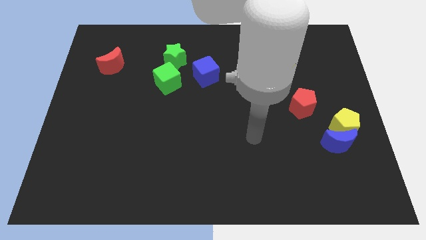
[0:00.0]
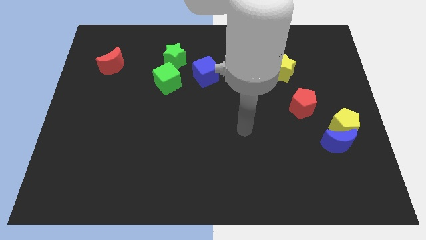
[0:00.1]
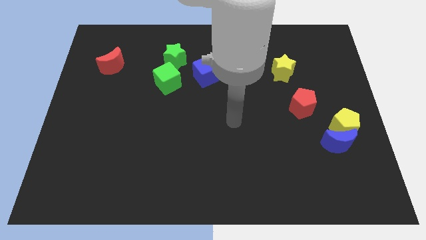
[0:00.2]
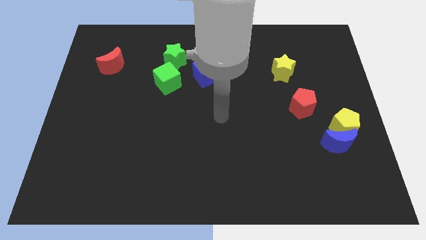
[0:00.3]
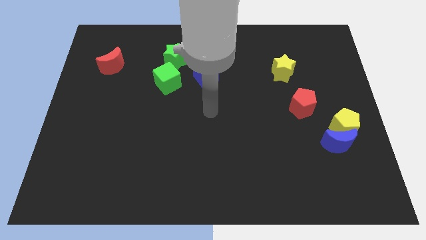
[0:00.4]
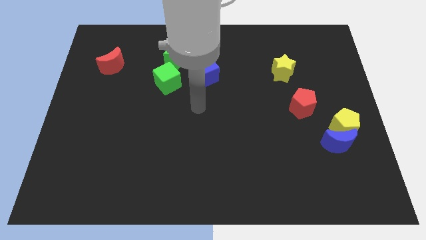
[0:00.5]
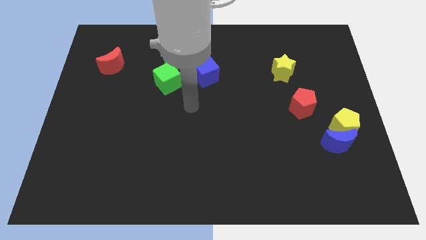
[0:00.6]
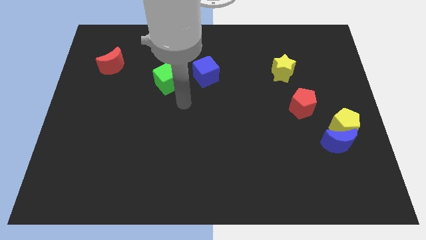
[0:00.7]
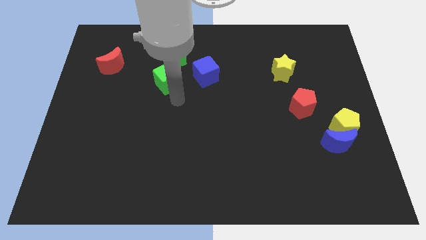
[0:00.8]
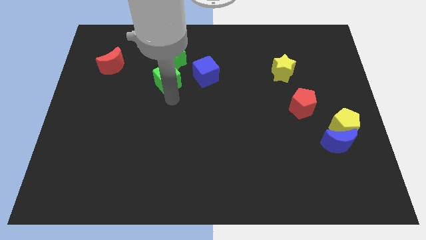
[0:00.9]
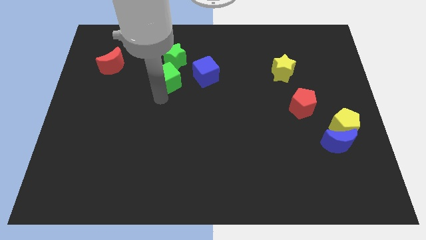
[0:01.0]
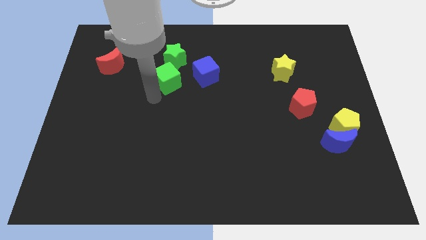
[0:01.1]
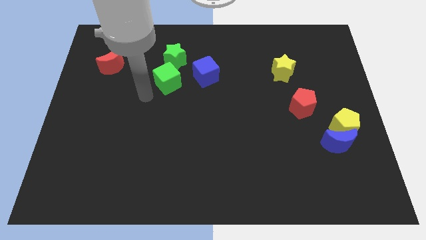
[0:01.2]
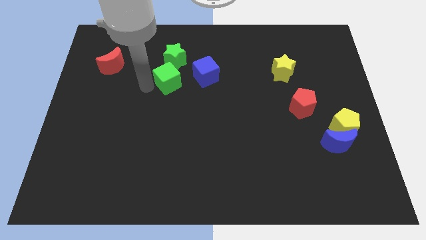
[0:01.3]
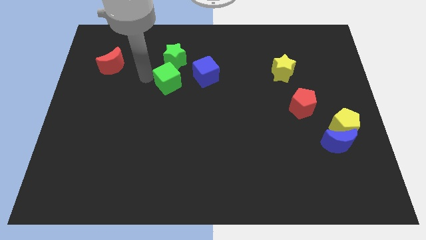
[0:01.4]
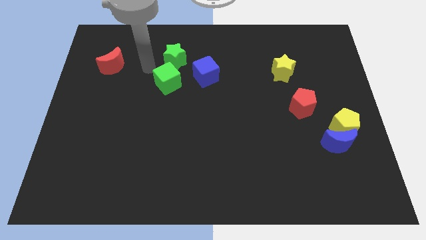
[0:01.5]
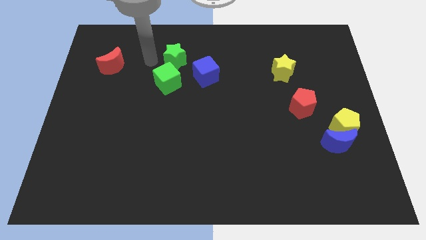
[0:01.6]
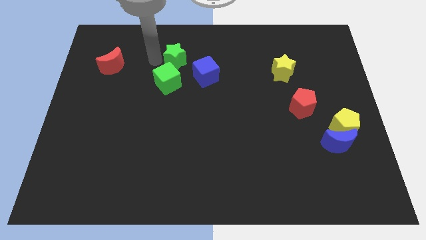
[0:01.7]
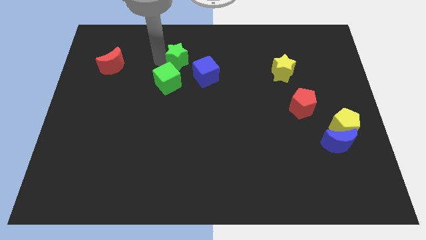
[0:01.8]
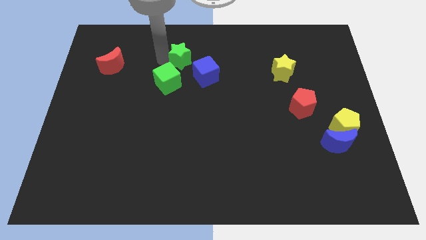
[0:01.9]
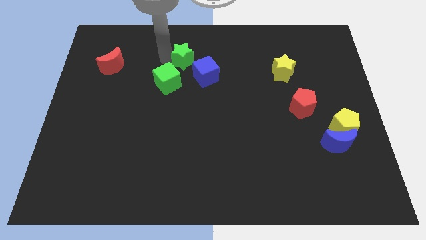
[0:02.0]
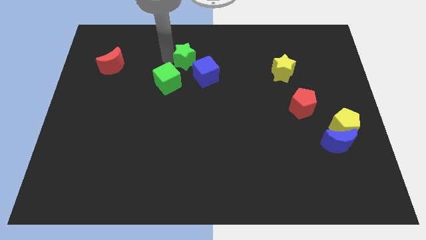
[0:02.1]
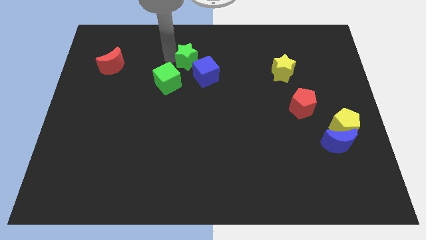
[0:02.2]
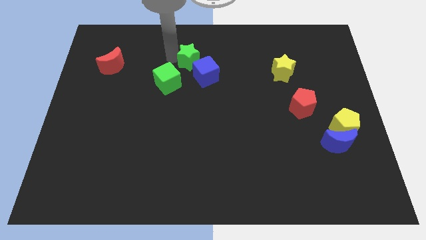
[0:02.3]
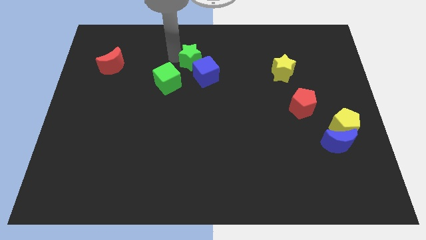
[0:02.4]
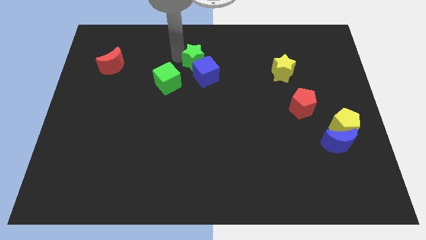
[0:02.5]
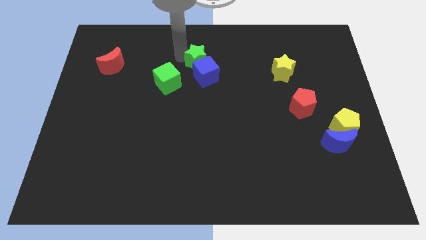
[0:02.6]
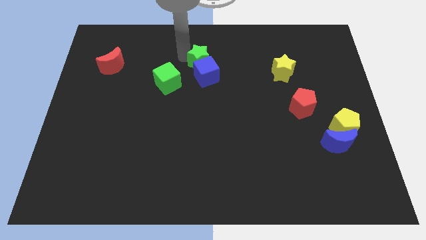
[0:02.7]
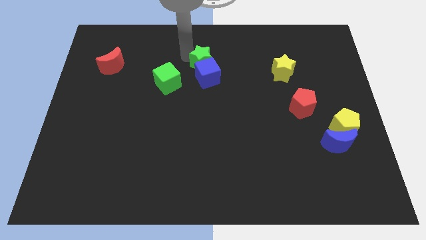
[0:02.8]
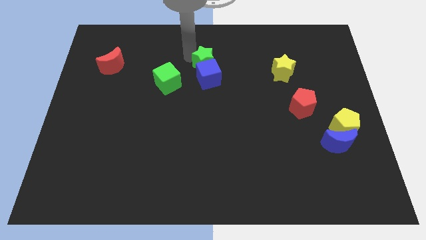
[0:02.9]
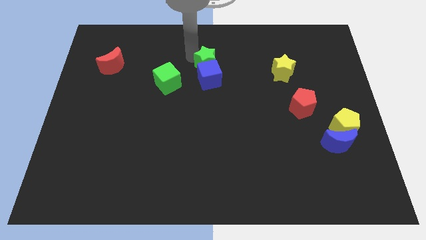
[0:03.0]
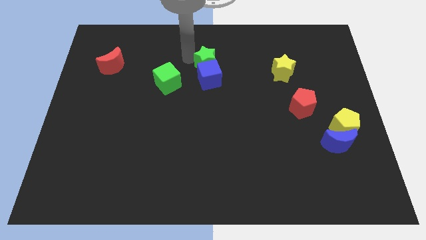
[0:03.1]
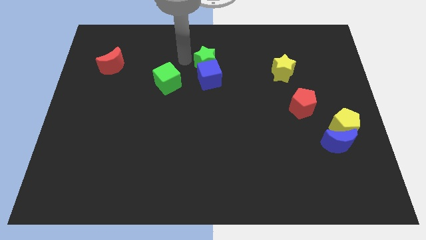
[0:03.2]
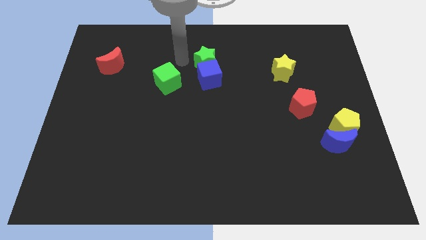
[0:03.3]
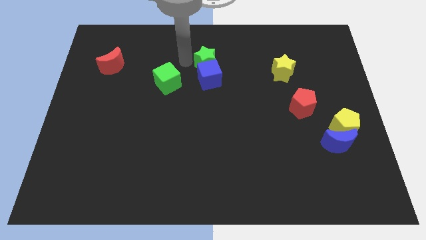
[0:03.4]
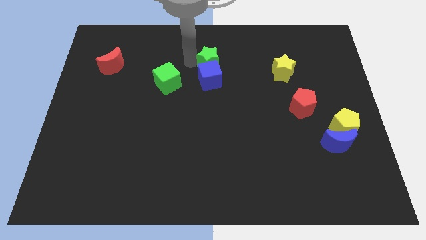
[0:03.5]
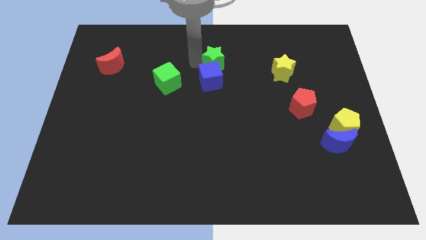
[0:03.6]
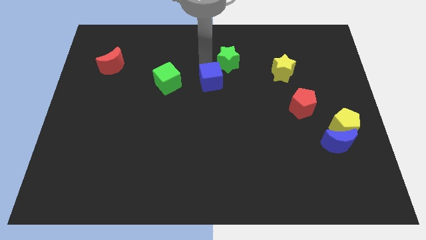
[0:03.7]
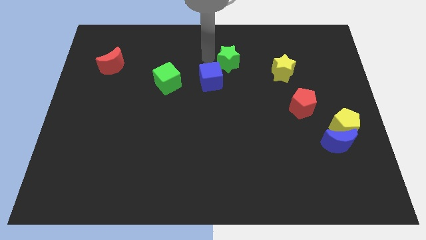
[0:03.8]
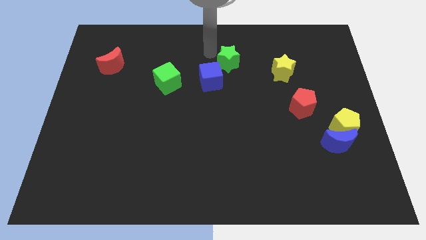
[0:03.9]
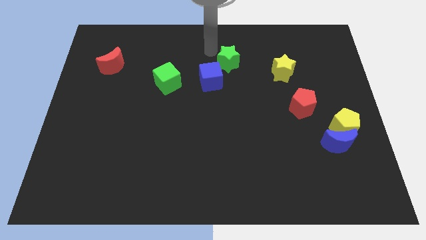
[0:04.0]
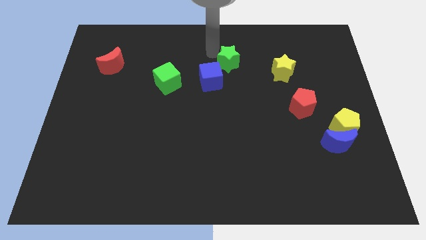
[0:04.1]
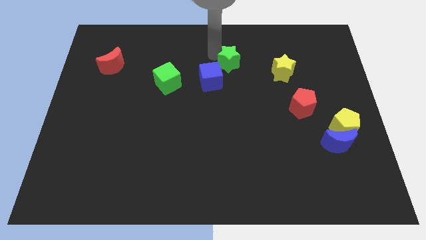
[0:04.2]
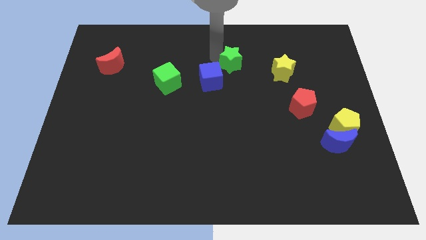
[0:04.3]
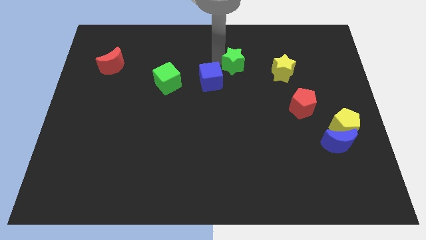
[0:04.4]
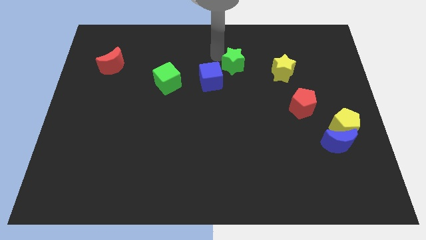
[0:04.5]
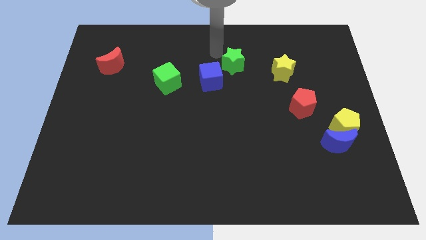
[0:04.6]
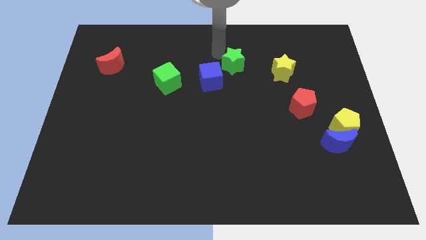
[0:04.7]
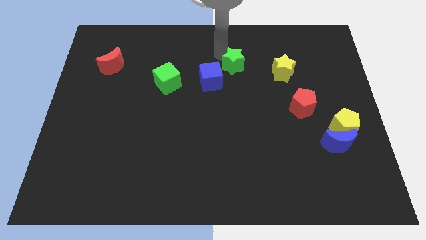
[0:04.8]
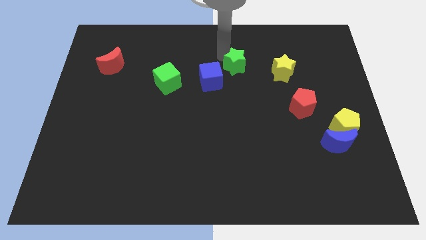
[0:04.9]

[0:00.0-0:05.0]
slide the green star to the right side of the blue cube

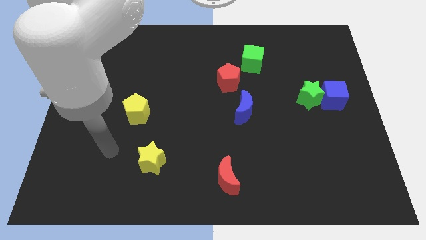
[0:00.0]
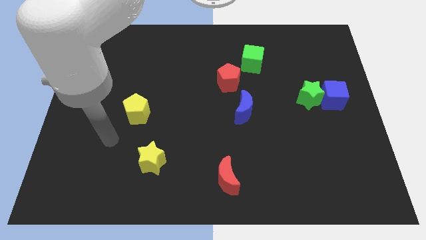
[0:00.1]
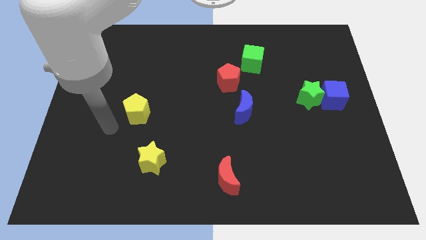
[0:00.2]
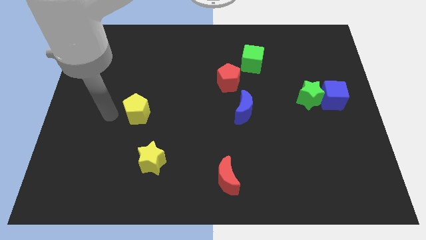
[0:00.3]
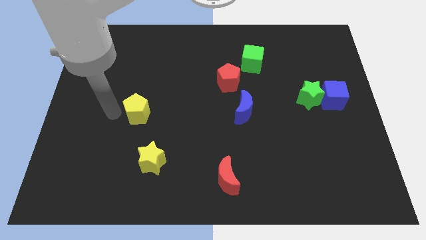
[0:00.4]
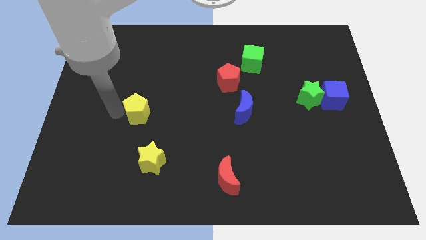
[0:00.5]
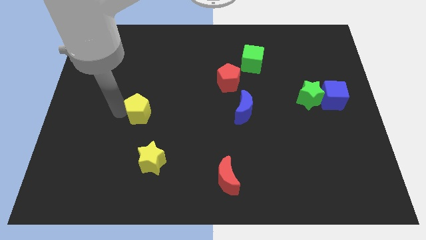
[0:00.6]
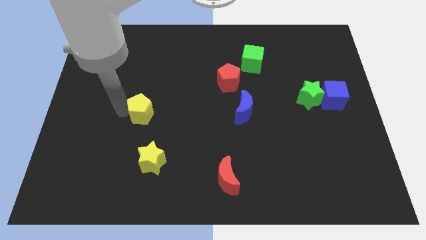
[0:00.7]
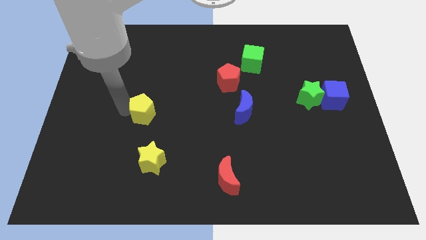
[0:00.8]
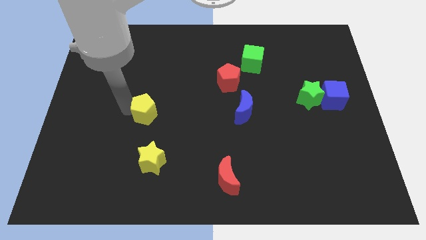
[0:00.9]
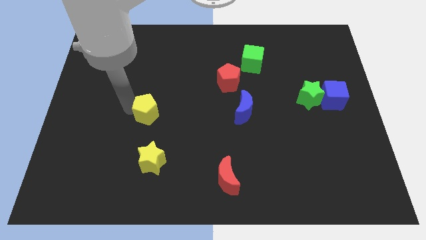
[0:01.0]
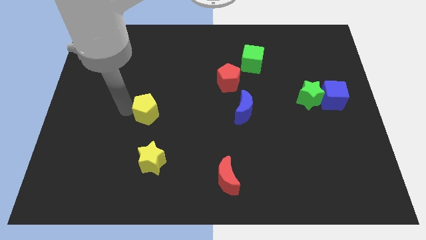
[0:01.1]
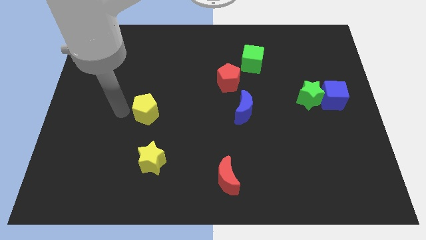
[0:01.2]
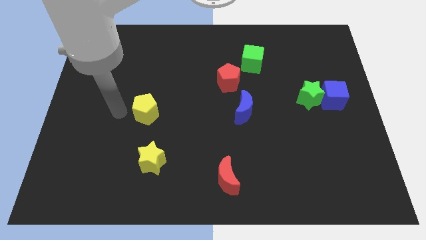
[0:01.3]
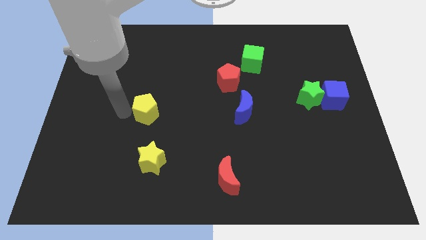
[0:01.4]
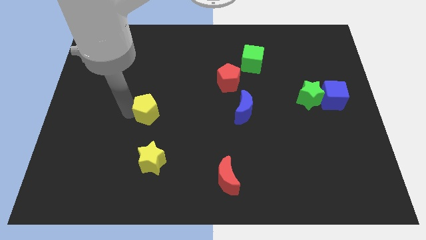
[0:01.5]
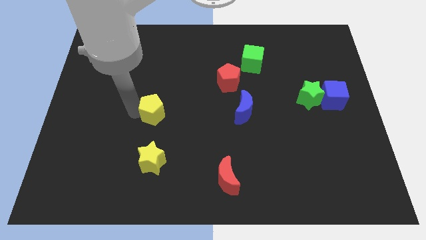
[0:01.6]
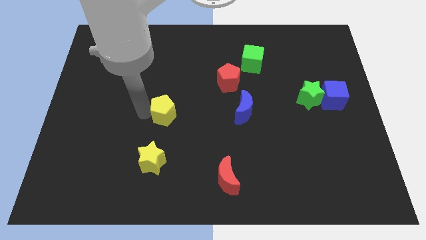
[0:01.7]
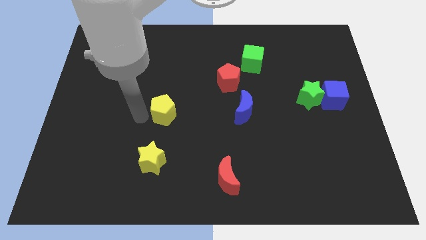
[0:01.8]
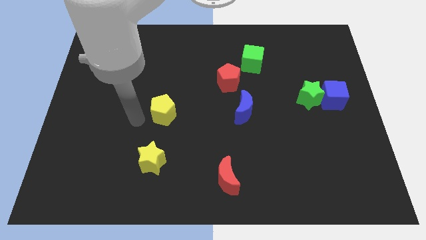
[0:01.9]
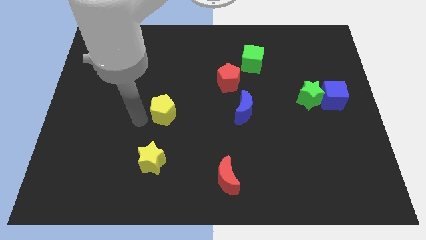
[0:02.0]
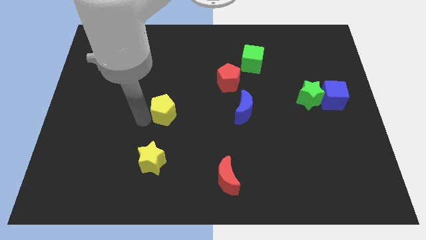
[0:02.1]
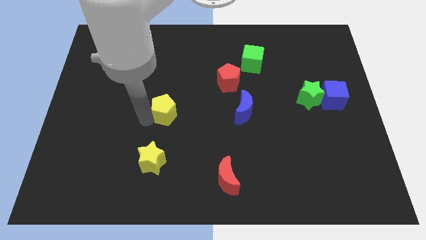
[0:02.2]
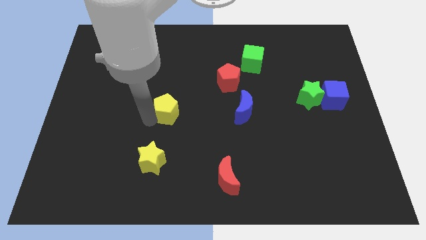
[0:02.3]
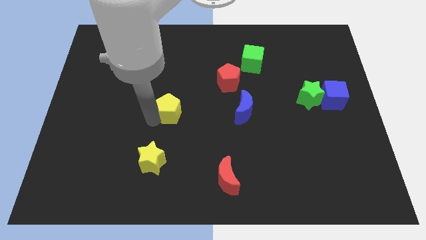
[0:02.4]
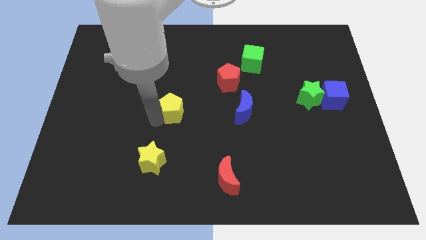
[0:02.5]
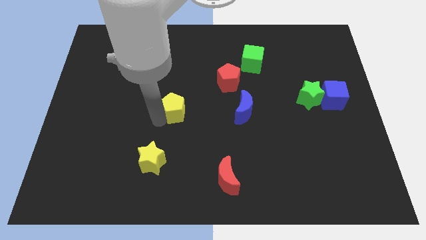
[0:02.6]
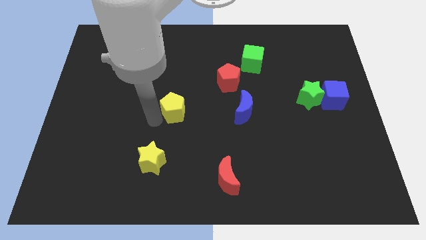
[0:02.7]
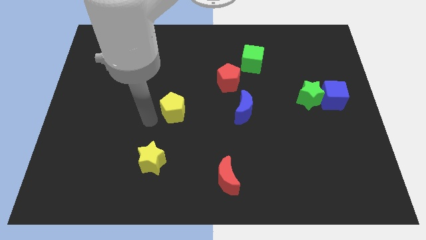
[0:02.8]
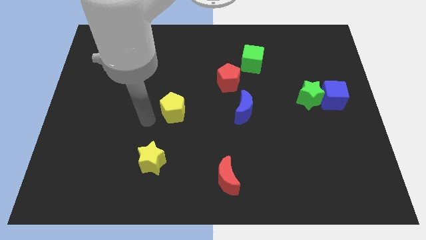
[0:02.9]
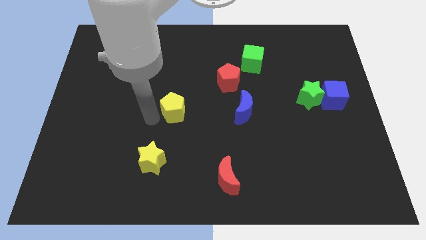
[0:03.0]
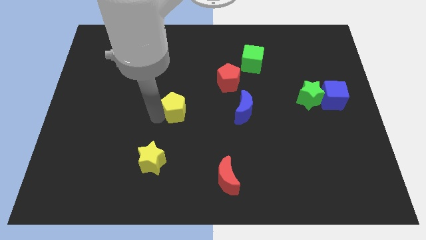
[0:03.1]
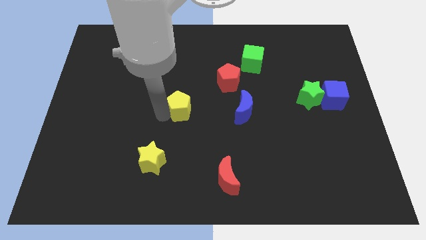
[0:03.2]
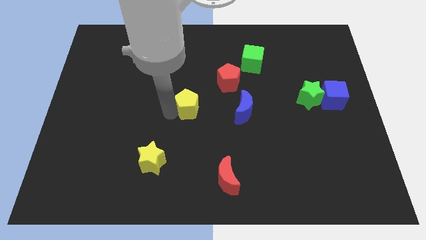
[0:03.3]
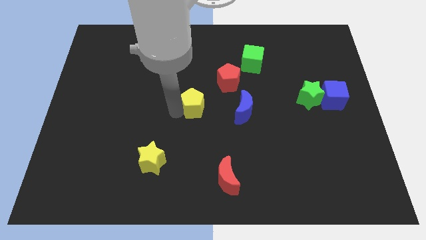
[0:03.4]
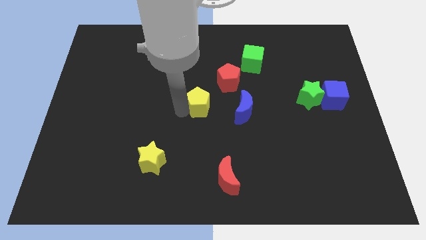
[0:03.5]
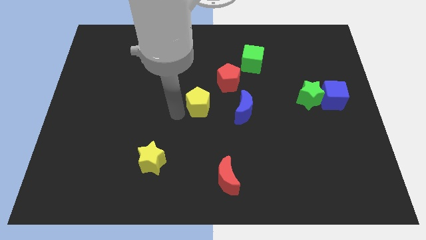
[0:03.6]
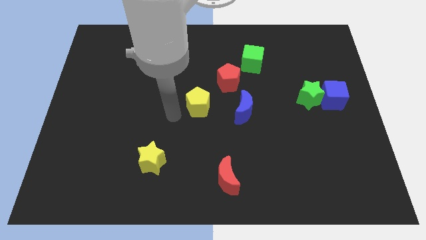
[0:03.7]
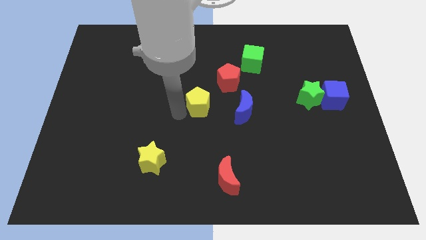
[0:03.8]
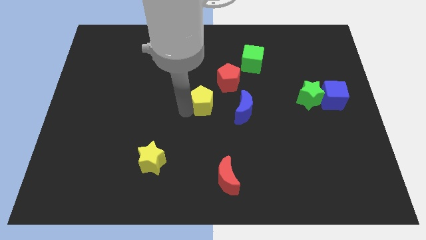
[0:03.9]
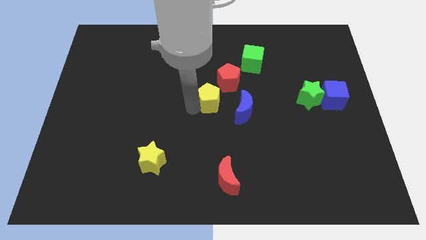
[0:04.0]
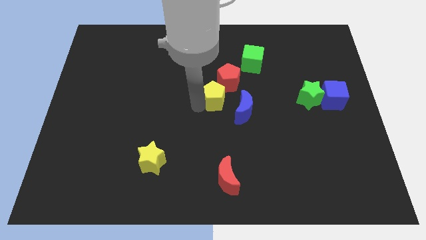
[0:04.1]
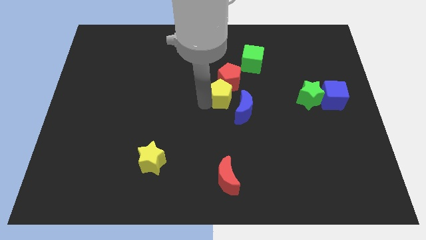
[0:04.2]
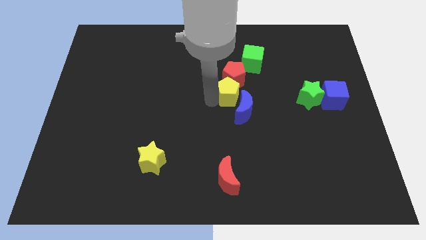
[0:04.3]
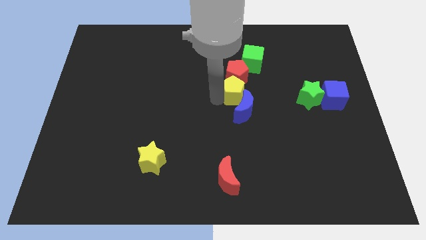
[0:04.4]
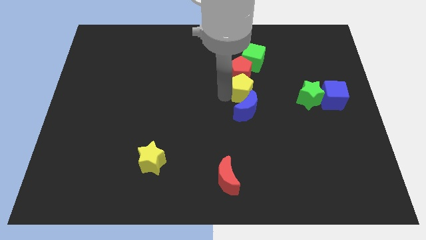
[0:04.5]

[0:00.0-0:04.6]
slide the yellow pentagon to the top right side of the blue moon
